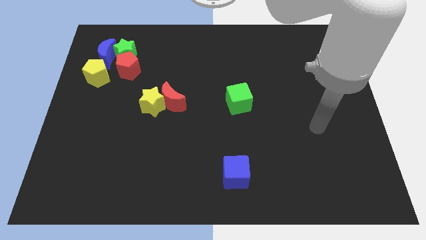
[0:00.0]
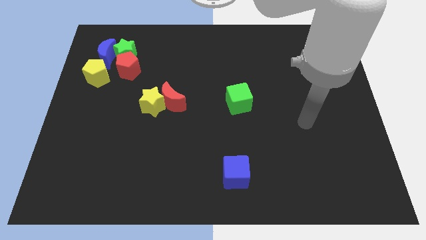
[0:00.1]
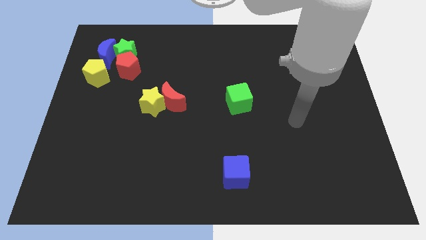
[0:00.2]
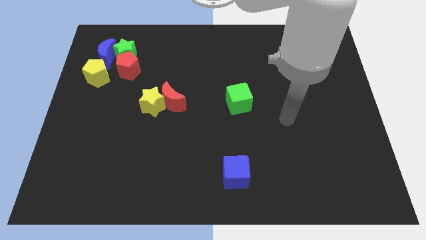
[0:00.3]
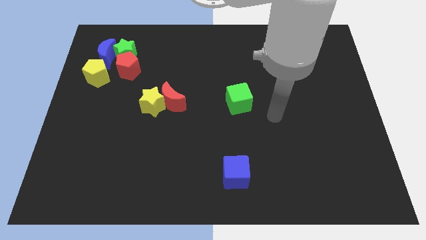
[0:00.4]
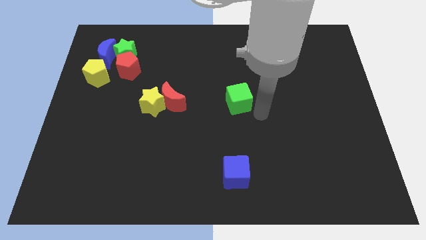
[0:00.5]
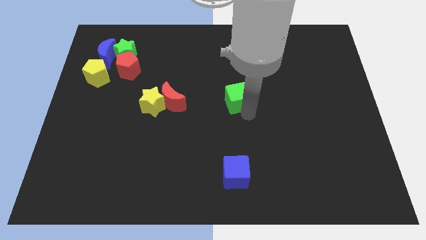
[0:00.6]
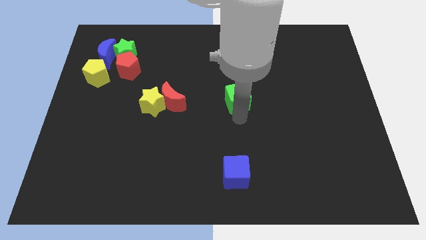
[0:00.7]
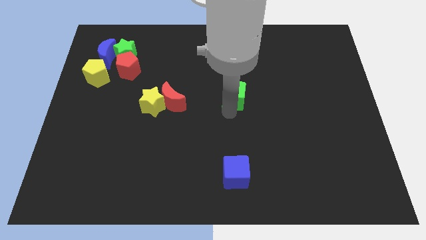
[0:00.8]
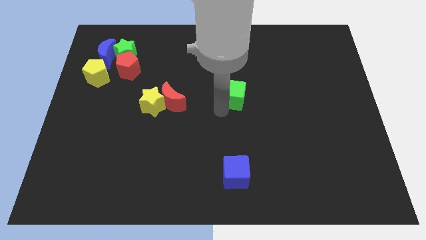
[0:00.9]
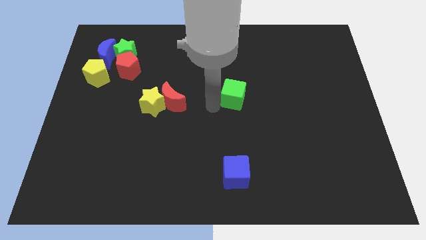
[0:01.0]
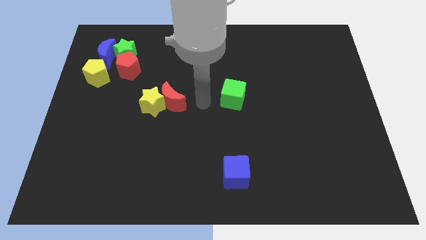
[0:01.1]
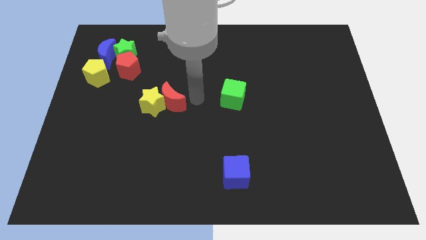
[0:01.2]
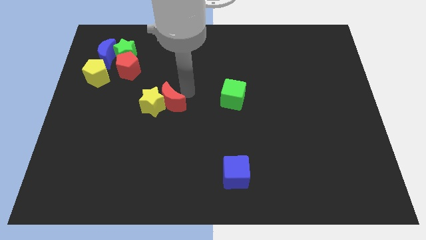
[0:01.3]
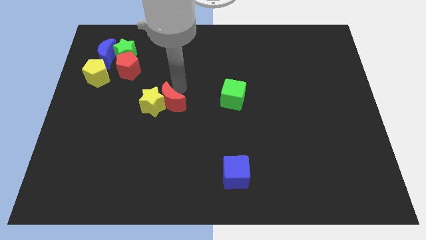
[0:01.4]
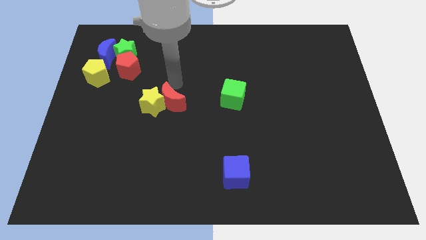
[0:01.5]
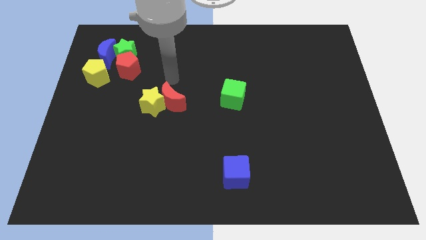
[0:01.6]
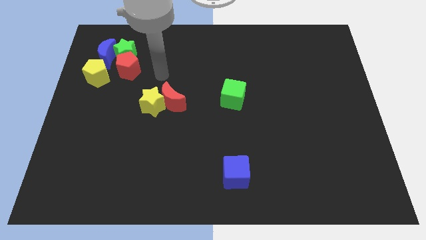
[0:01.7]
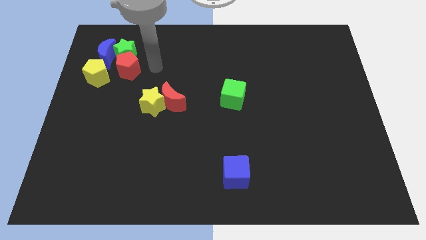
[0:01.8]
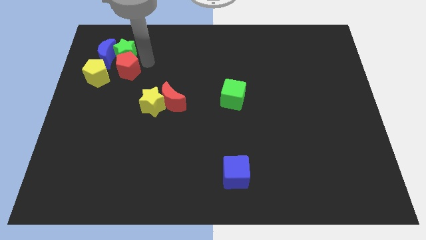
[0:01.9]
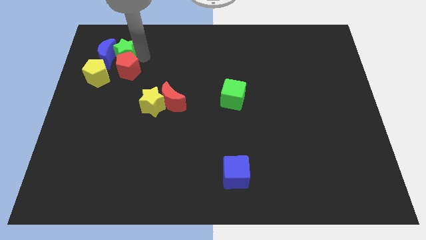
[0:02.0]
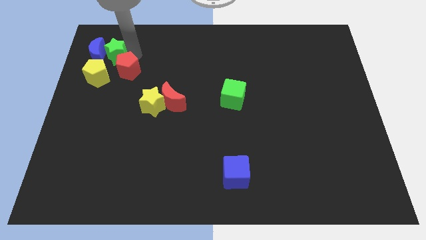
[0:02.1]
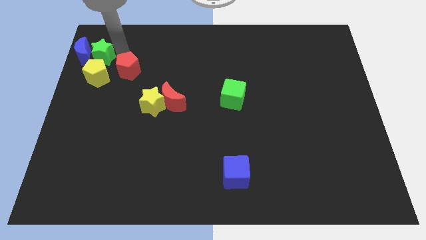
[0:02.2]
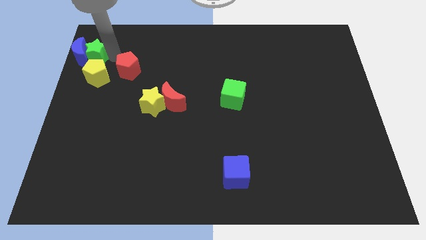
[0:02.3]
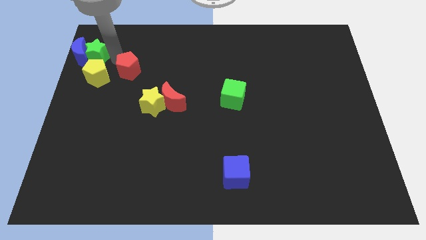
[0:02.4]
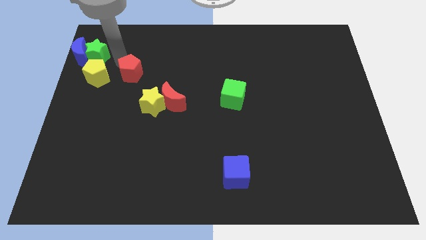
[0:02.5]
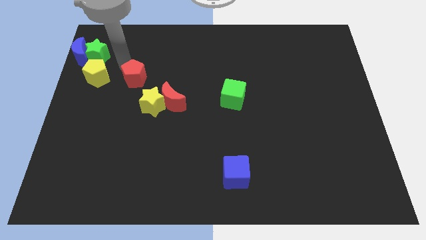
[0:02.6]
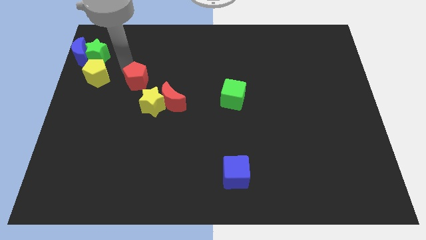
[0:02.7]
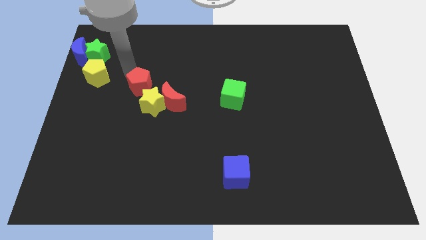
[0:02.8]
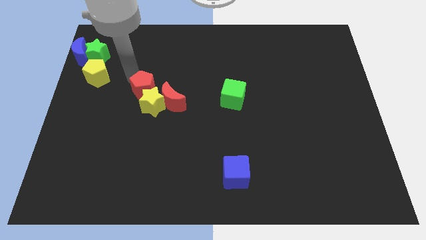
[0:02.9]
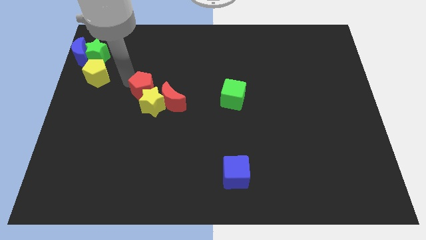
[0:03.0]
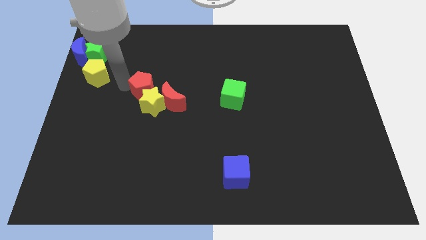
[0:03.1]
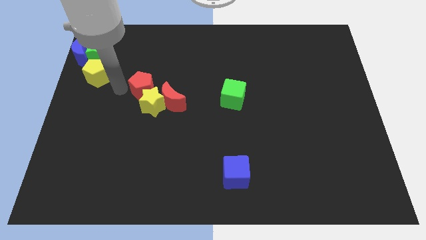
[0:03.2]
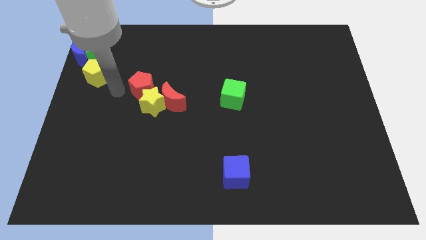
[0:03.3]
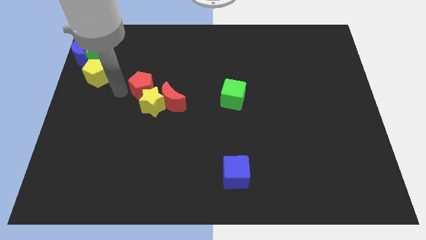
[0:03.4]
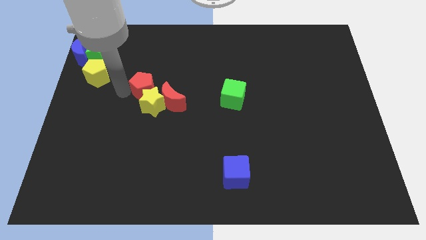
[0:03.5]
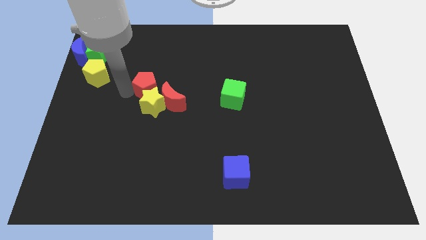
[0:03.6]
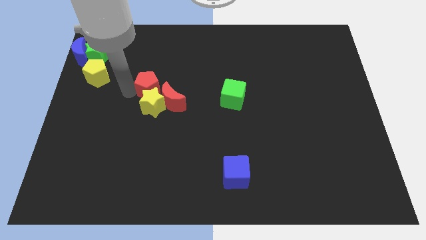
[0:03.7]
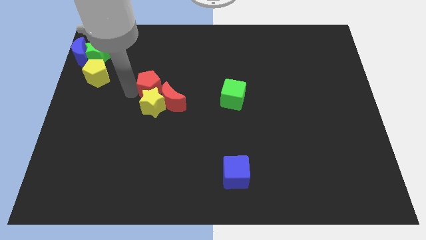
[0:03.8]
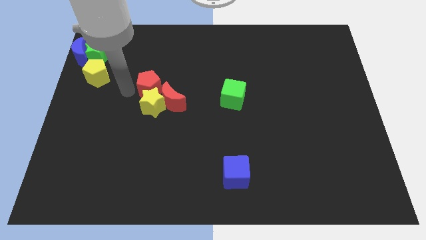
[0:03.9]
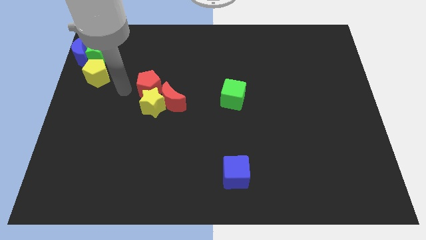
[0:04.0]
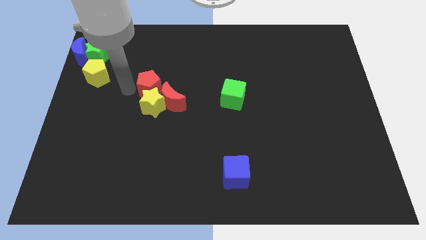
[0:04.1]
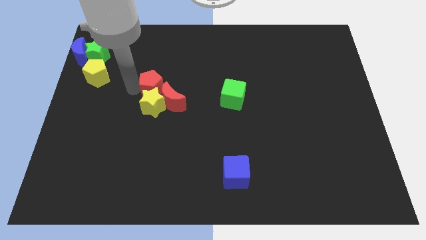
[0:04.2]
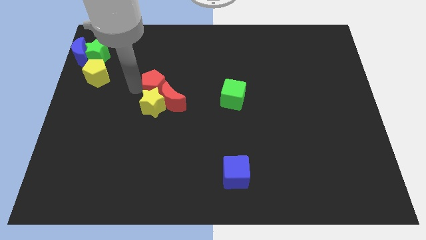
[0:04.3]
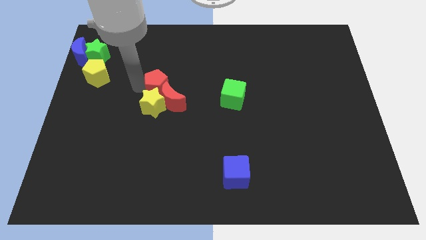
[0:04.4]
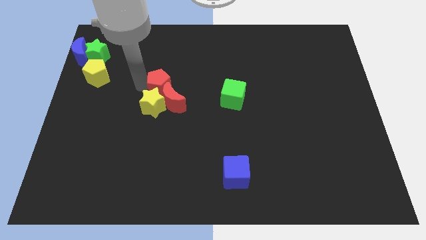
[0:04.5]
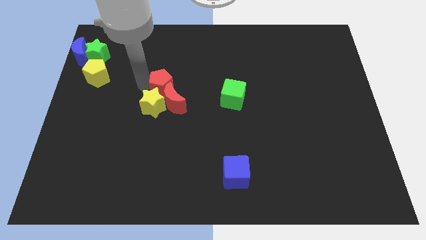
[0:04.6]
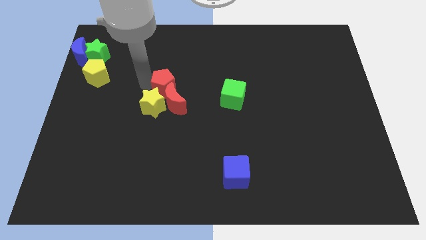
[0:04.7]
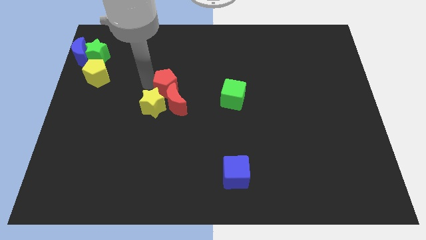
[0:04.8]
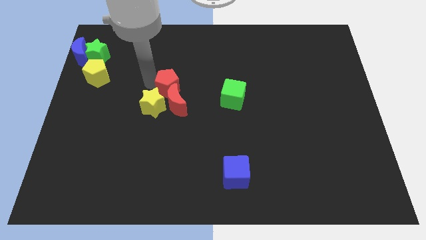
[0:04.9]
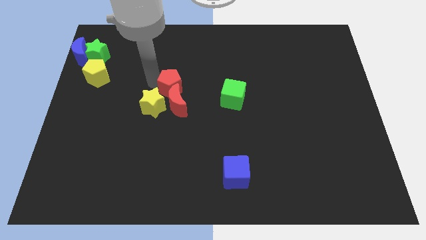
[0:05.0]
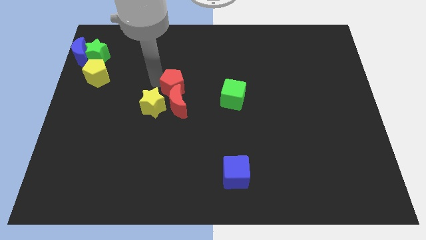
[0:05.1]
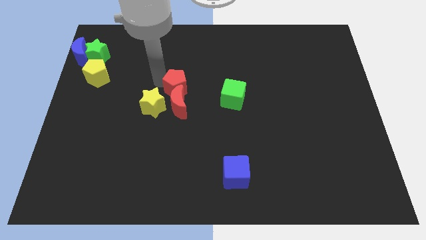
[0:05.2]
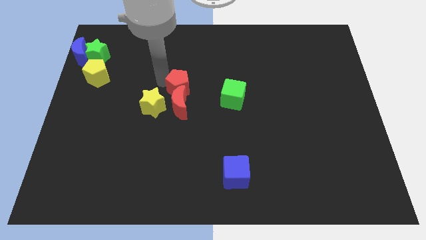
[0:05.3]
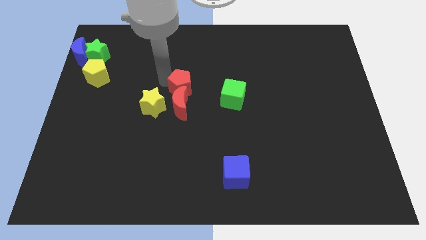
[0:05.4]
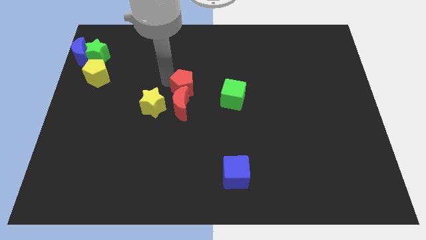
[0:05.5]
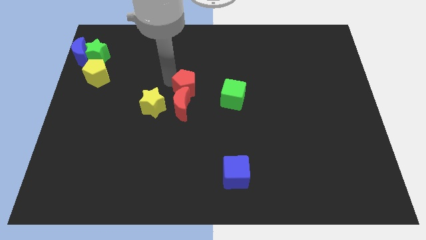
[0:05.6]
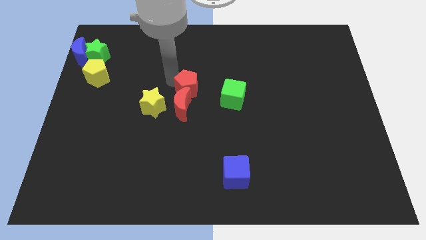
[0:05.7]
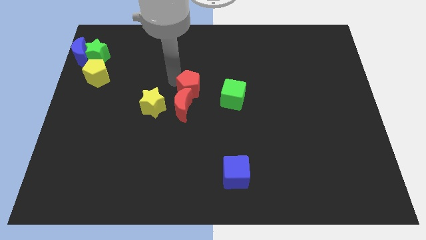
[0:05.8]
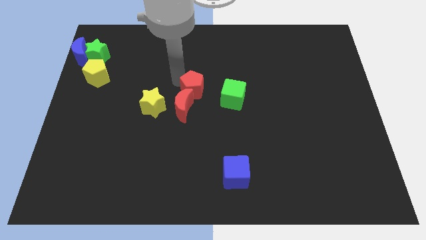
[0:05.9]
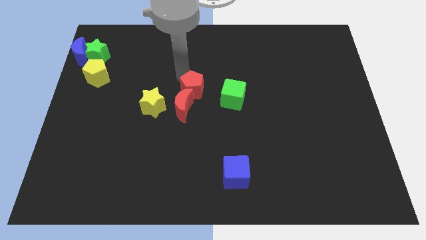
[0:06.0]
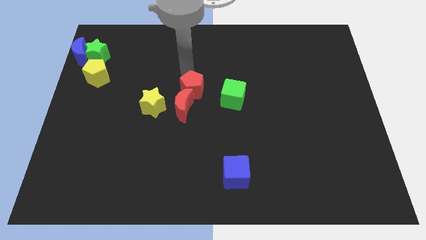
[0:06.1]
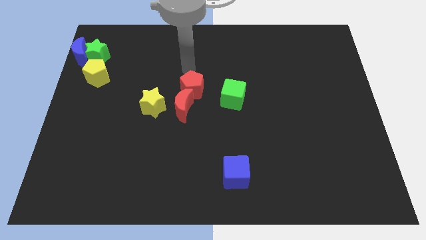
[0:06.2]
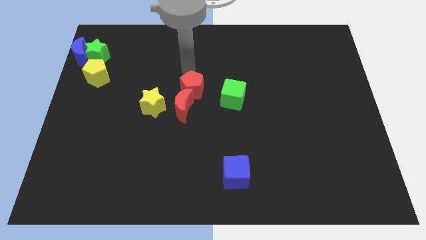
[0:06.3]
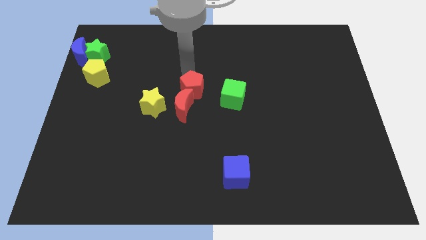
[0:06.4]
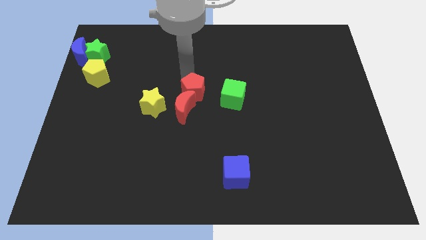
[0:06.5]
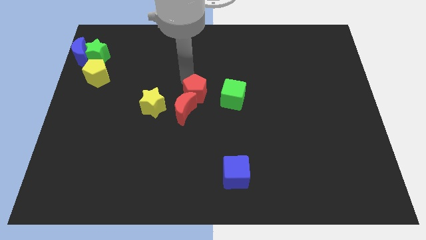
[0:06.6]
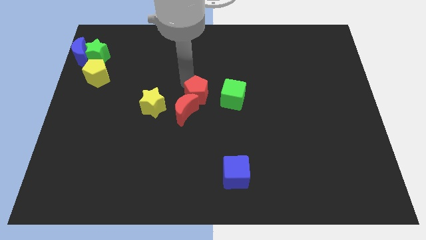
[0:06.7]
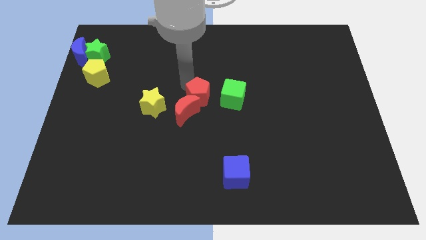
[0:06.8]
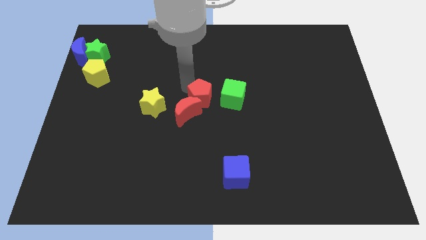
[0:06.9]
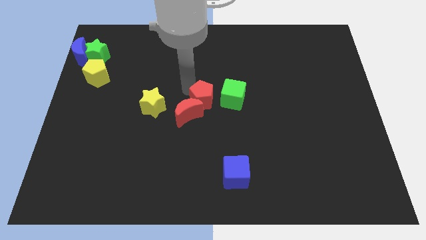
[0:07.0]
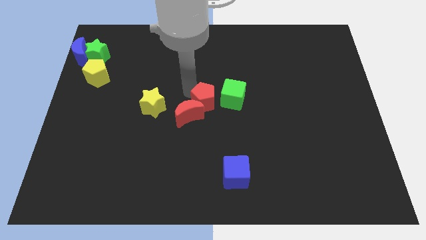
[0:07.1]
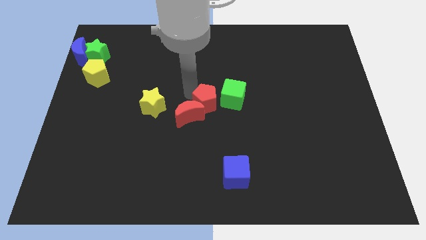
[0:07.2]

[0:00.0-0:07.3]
slide the red pentagon down and to the right

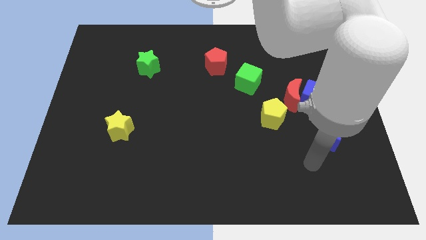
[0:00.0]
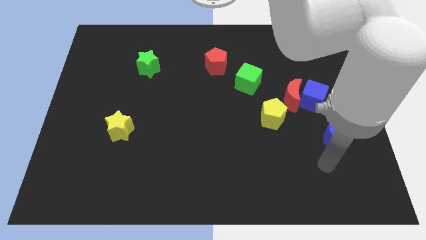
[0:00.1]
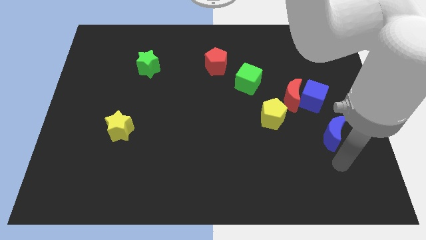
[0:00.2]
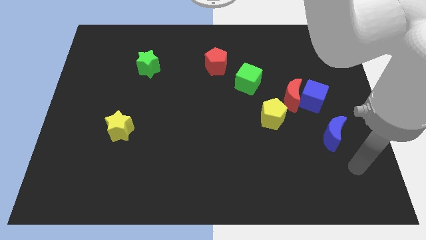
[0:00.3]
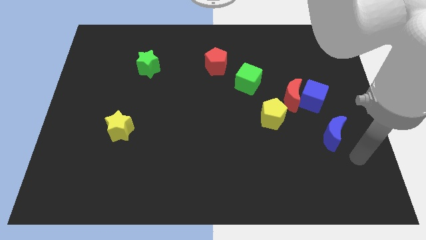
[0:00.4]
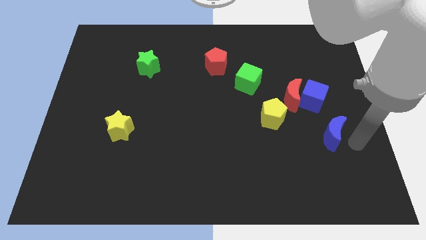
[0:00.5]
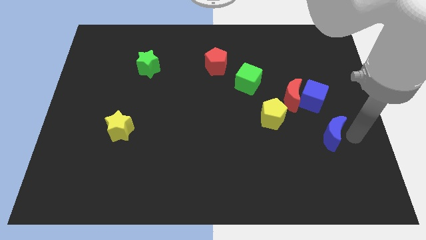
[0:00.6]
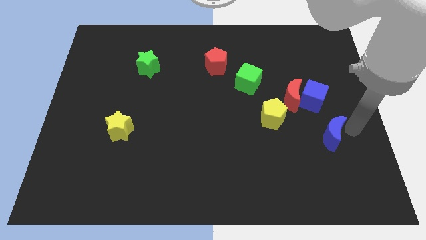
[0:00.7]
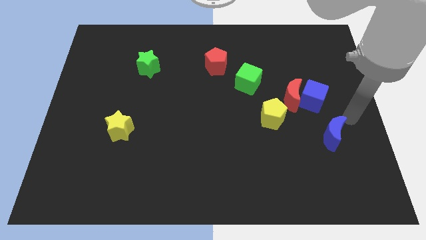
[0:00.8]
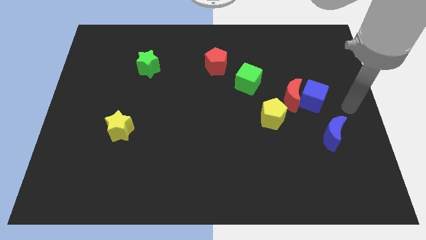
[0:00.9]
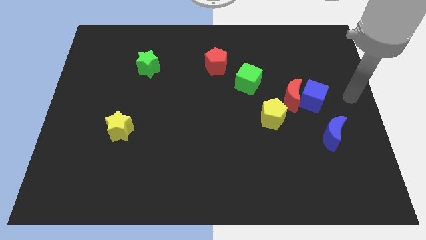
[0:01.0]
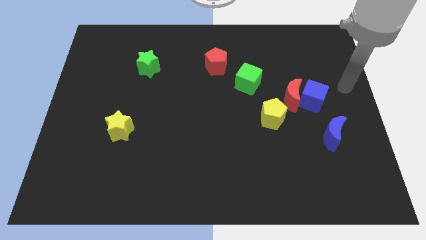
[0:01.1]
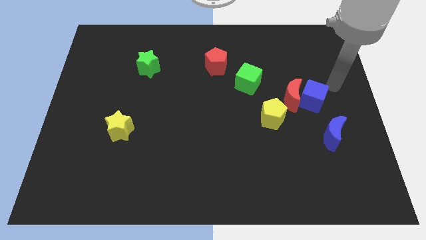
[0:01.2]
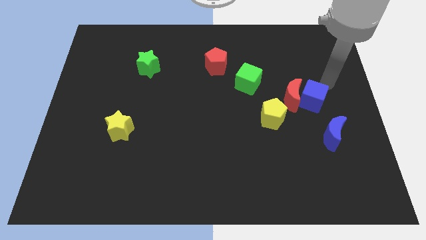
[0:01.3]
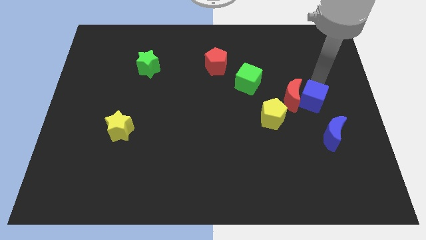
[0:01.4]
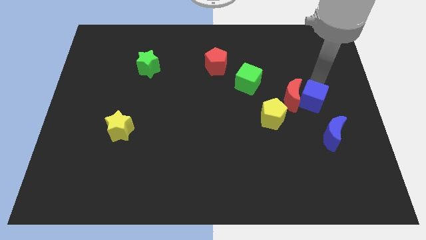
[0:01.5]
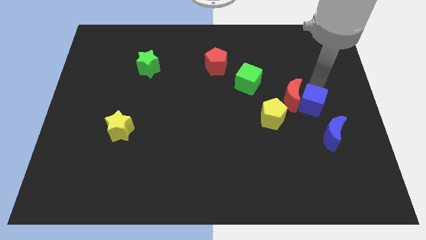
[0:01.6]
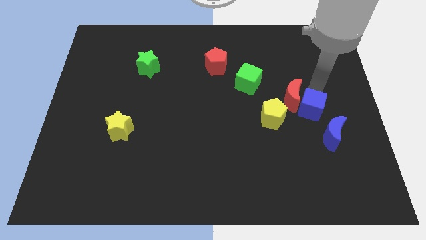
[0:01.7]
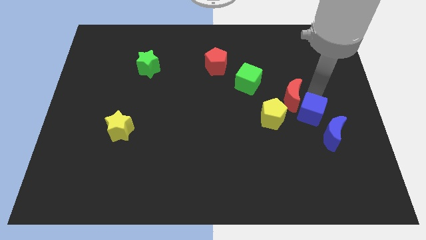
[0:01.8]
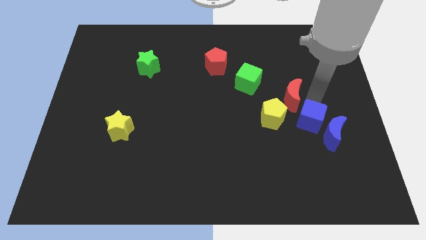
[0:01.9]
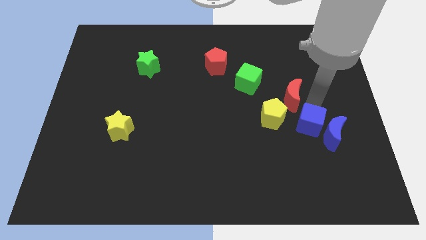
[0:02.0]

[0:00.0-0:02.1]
slightly move the blue cube down
